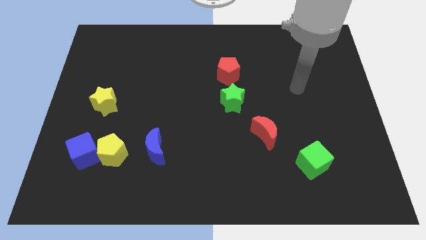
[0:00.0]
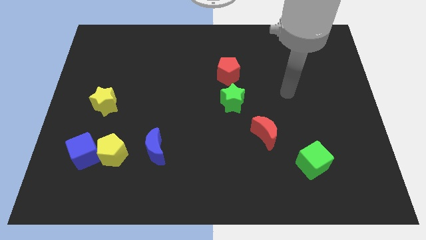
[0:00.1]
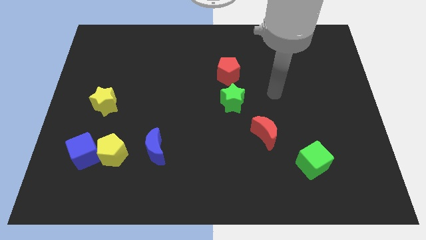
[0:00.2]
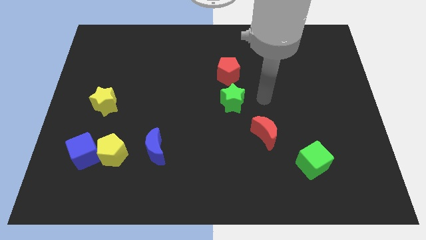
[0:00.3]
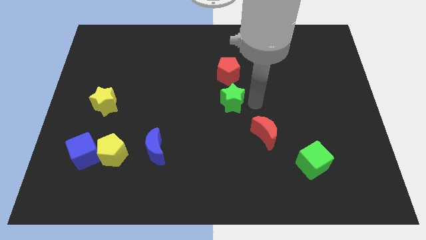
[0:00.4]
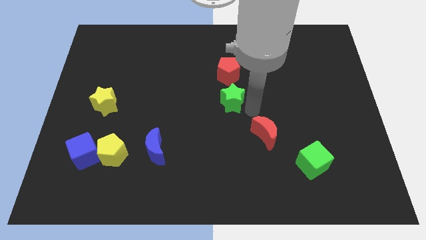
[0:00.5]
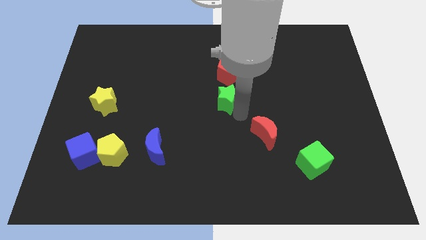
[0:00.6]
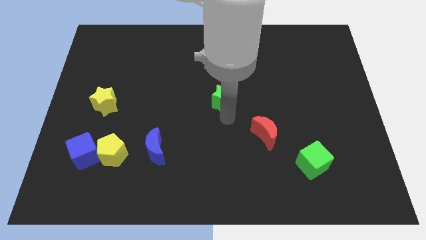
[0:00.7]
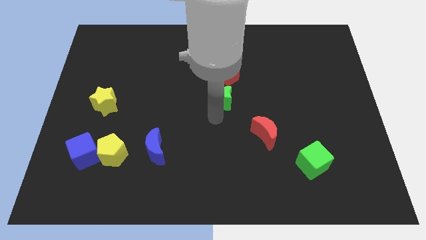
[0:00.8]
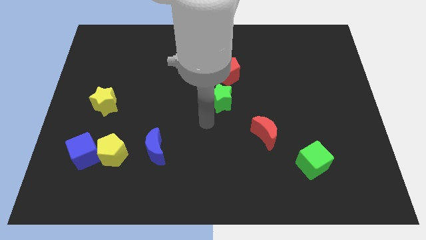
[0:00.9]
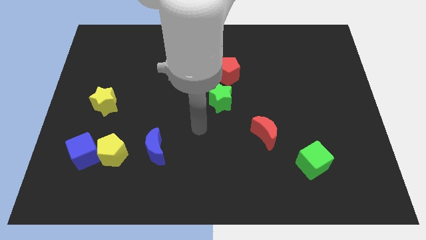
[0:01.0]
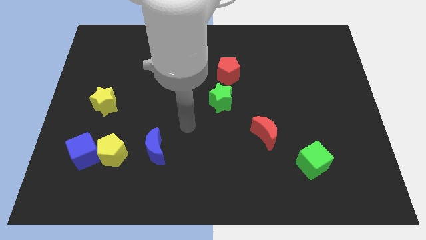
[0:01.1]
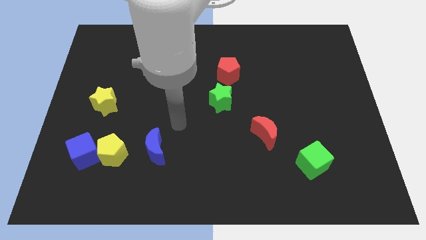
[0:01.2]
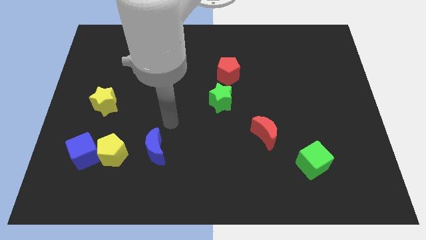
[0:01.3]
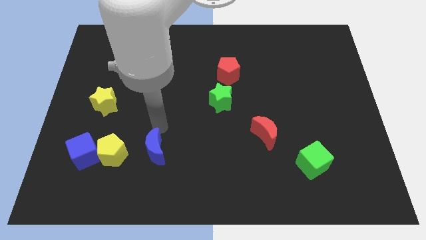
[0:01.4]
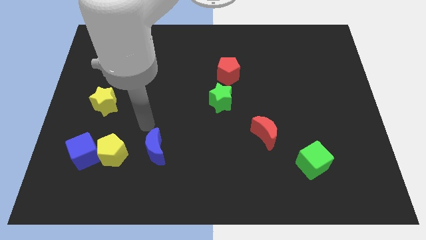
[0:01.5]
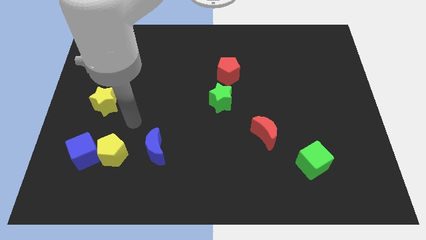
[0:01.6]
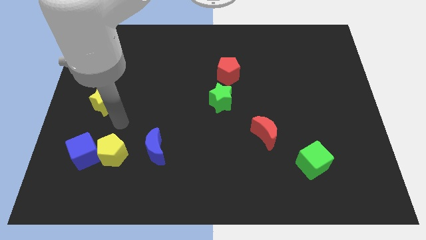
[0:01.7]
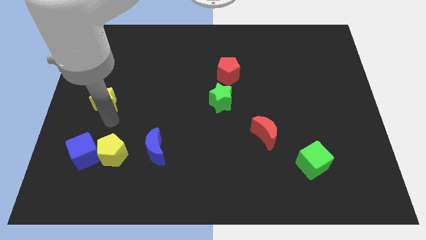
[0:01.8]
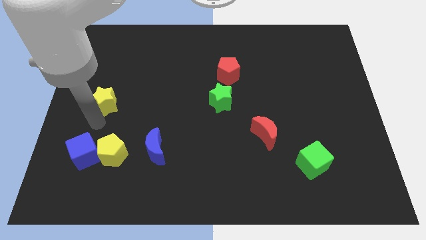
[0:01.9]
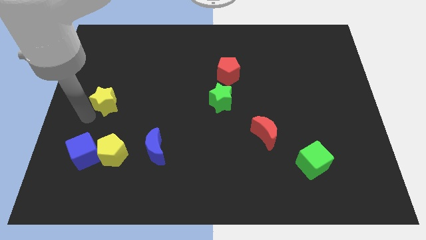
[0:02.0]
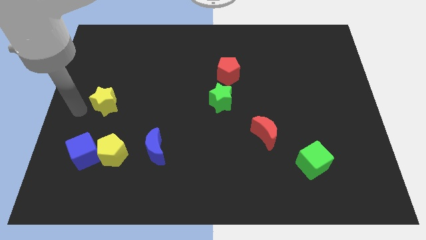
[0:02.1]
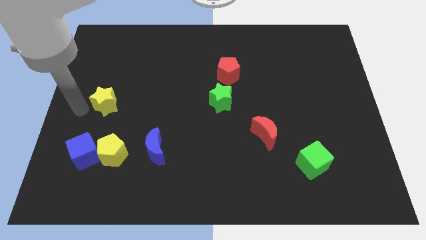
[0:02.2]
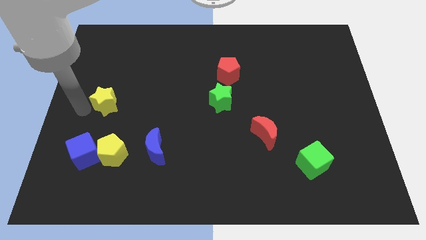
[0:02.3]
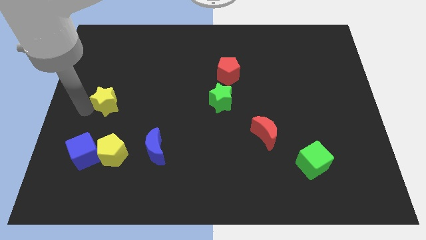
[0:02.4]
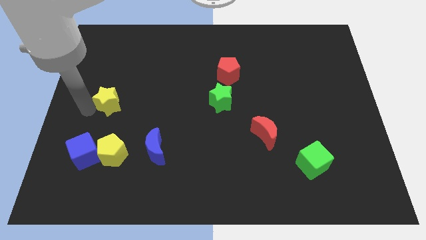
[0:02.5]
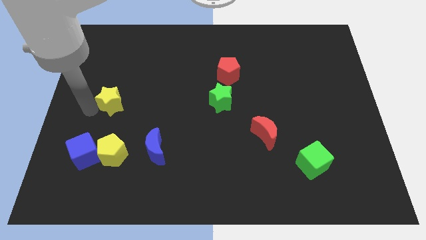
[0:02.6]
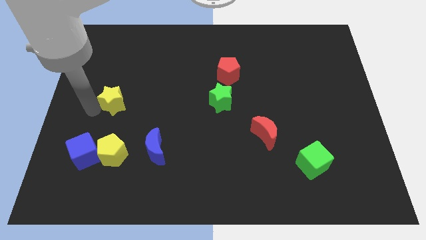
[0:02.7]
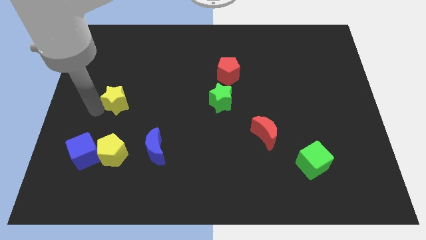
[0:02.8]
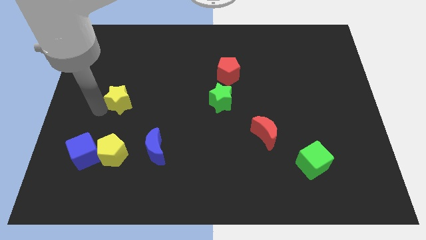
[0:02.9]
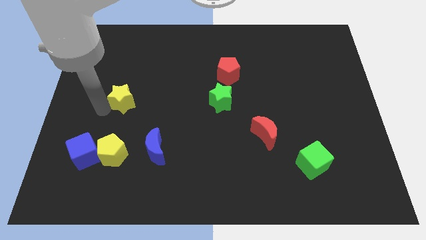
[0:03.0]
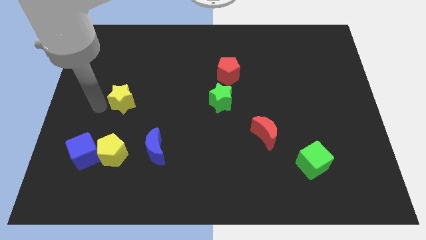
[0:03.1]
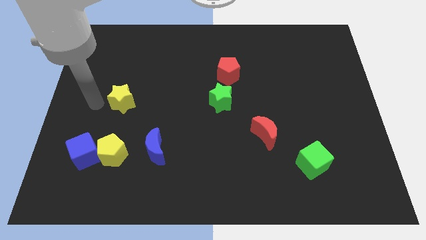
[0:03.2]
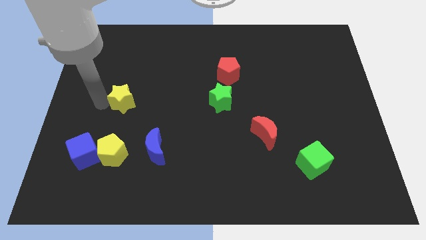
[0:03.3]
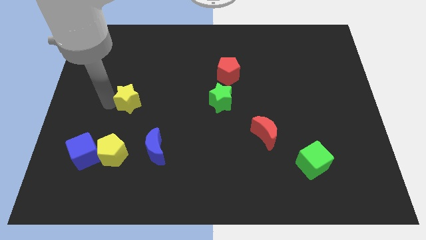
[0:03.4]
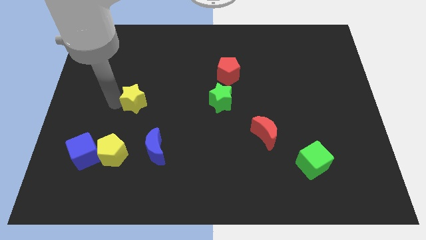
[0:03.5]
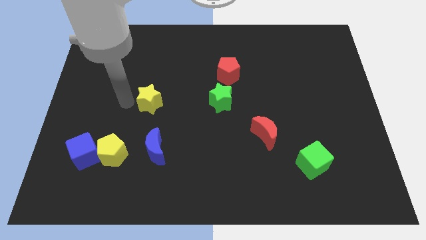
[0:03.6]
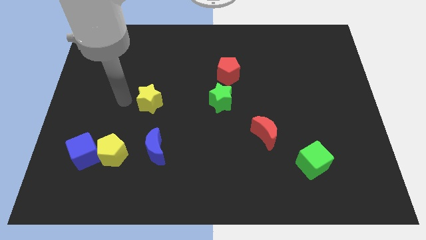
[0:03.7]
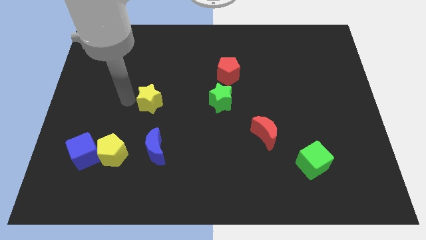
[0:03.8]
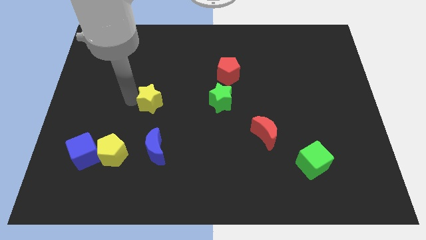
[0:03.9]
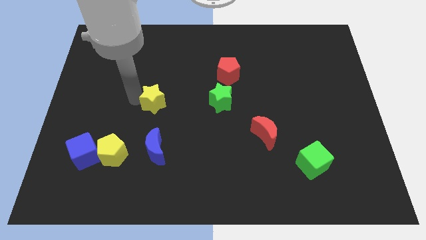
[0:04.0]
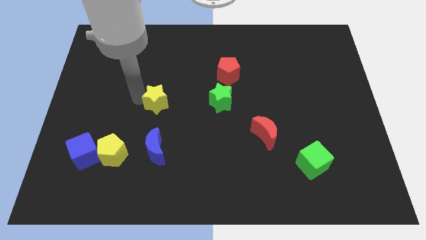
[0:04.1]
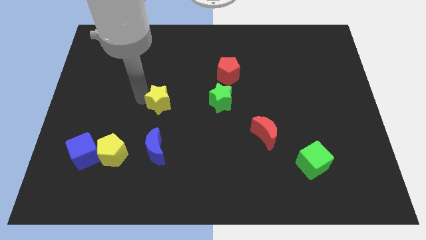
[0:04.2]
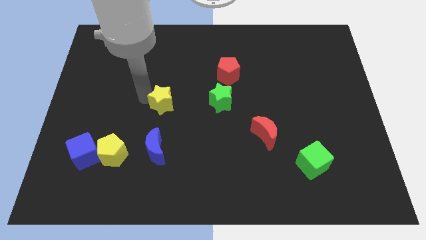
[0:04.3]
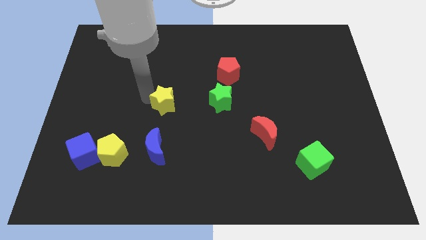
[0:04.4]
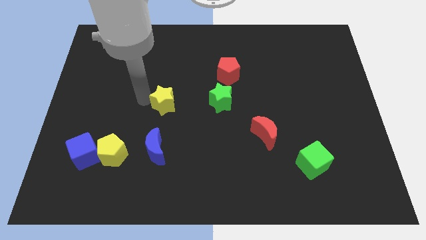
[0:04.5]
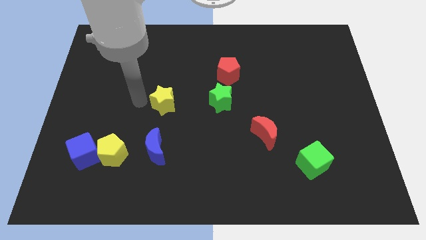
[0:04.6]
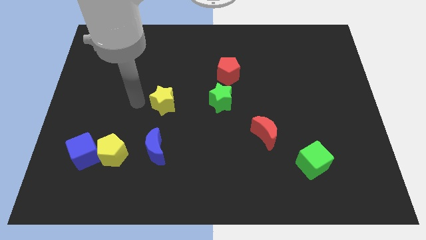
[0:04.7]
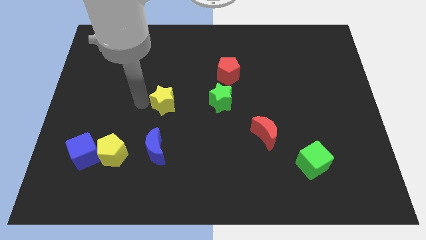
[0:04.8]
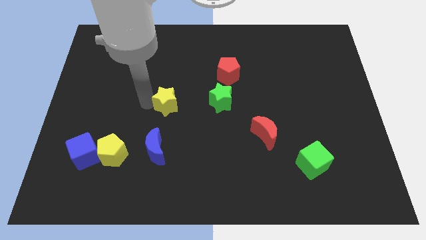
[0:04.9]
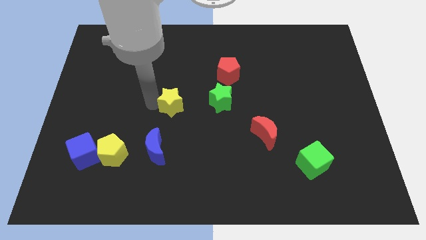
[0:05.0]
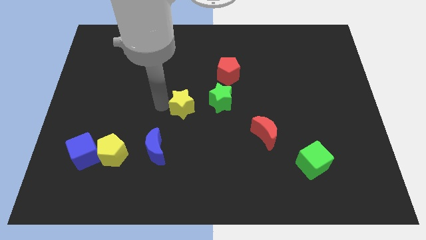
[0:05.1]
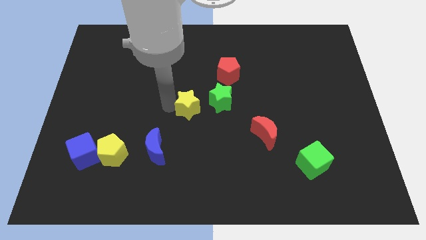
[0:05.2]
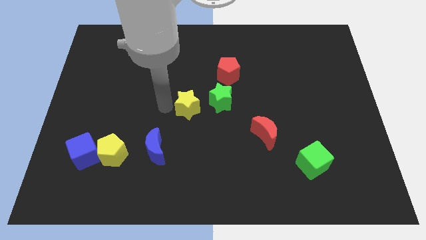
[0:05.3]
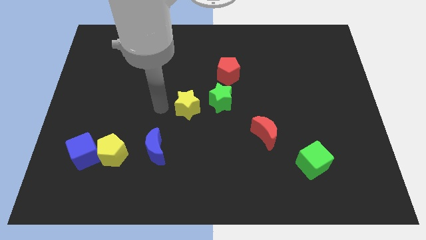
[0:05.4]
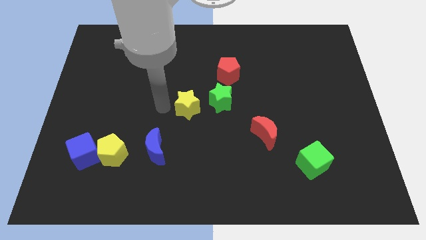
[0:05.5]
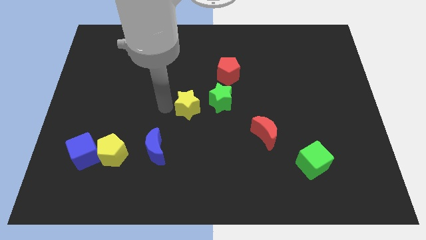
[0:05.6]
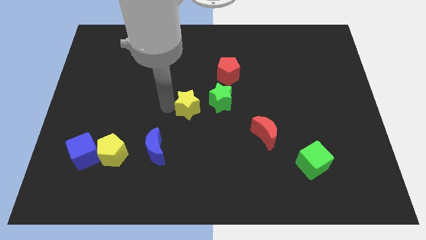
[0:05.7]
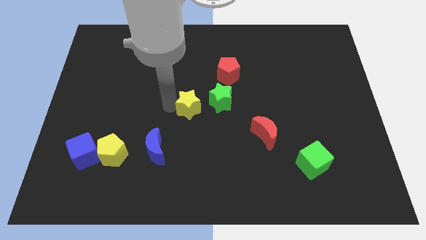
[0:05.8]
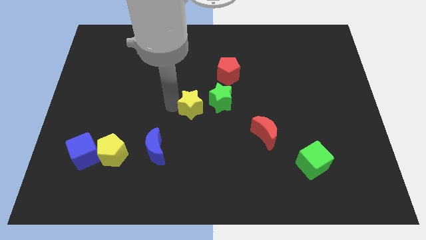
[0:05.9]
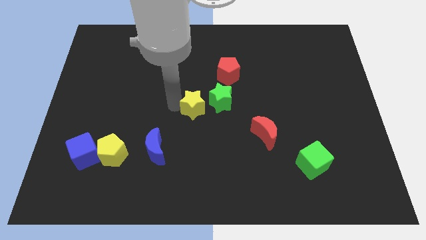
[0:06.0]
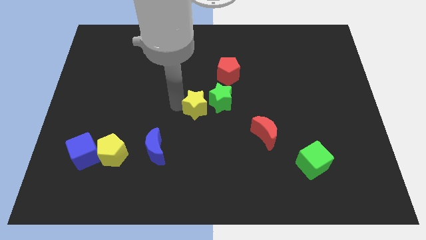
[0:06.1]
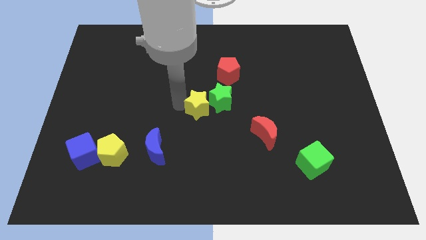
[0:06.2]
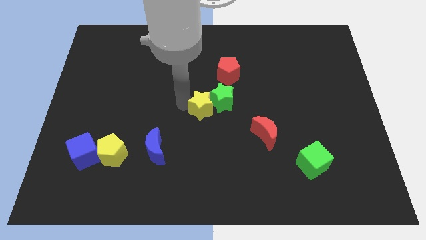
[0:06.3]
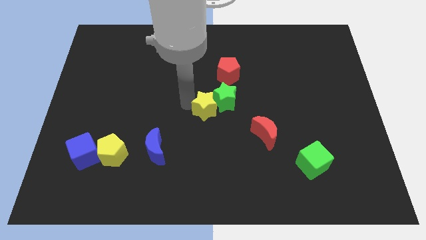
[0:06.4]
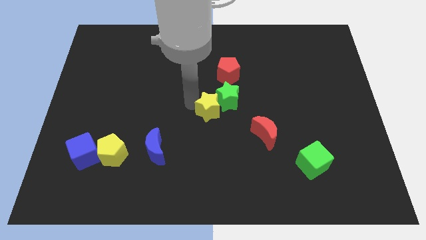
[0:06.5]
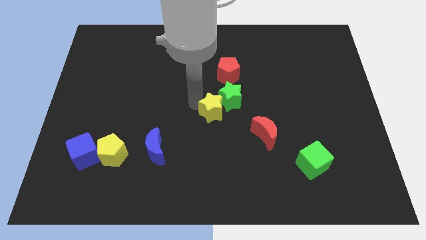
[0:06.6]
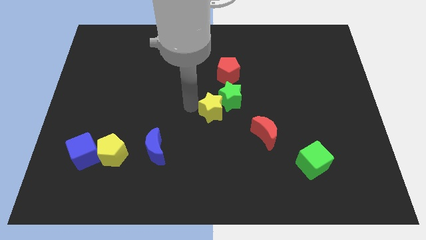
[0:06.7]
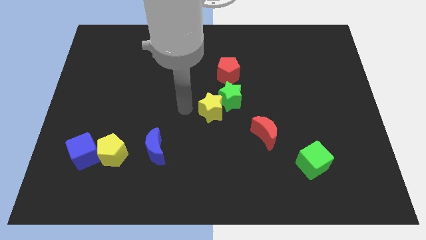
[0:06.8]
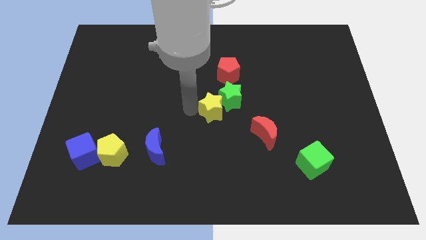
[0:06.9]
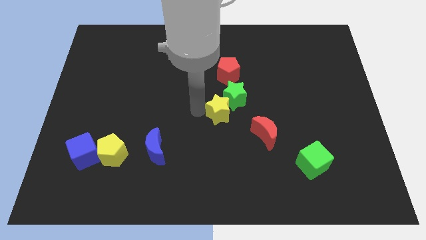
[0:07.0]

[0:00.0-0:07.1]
slide the yellow star to the top left of the red moon
